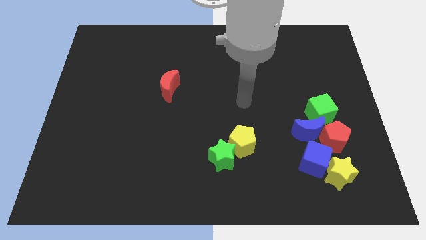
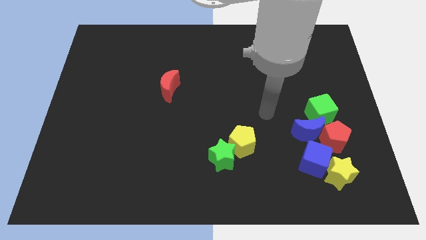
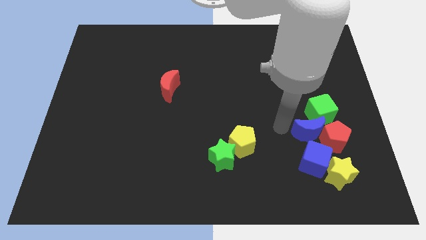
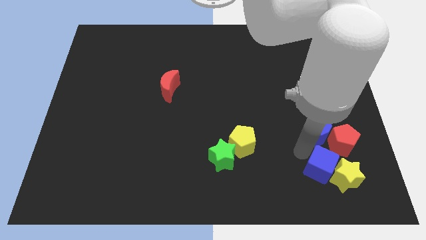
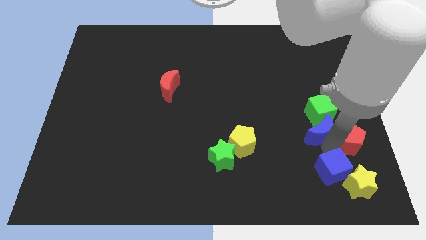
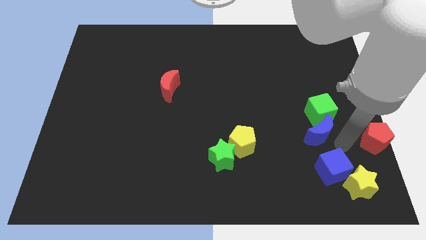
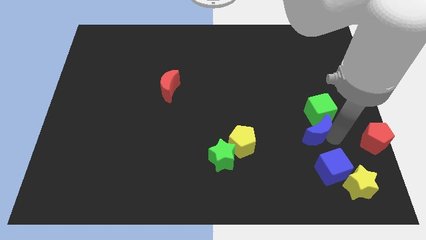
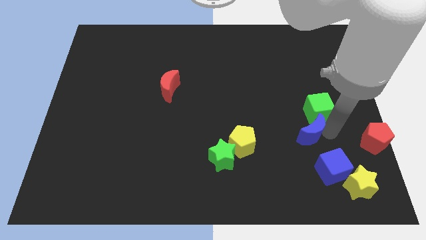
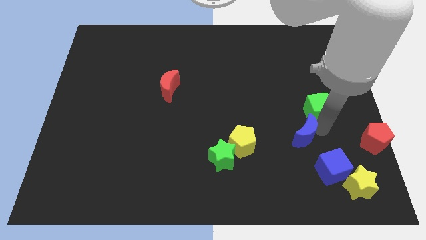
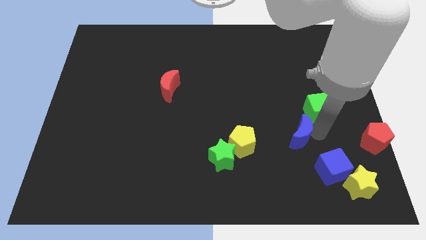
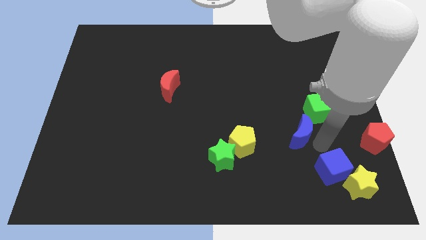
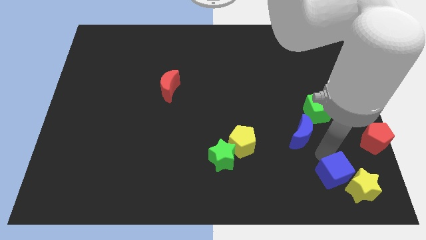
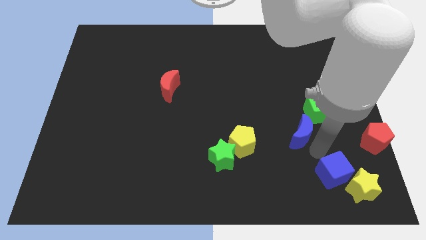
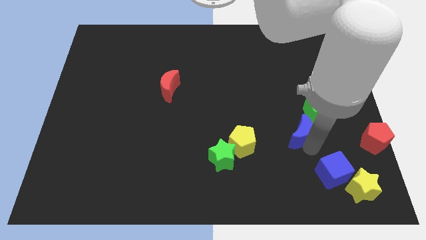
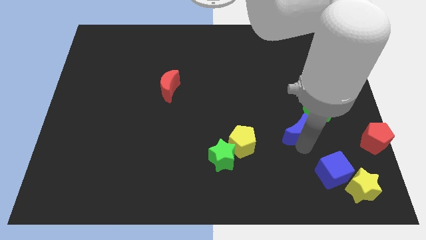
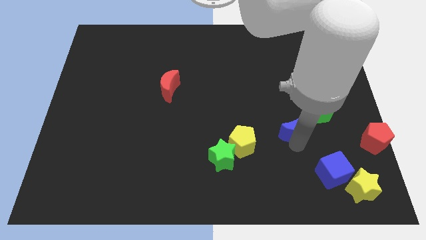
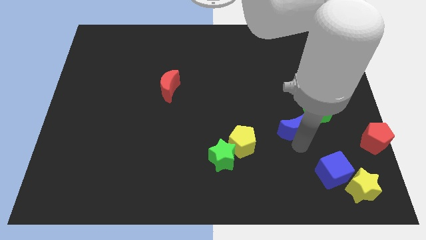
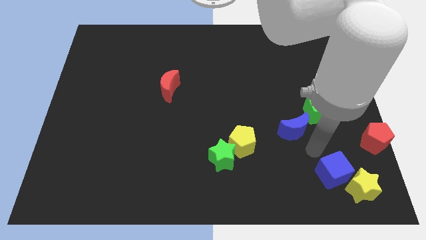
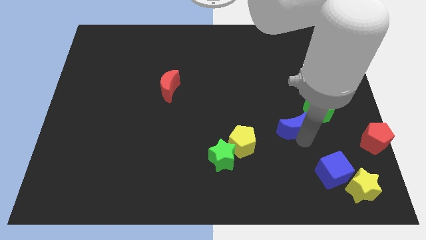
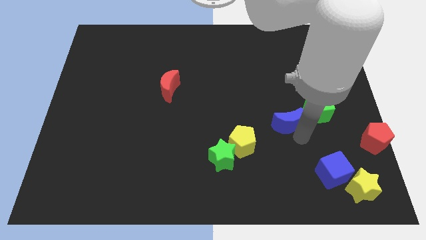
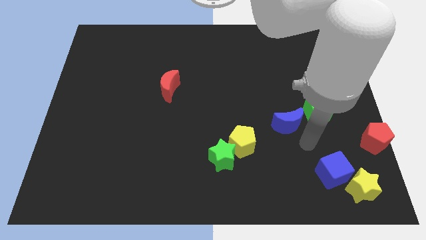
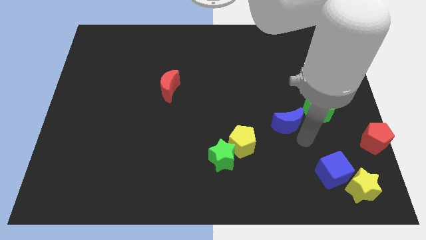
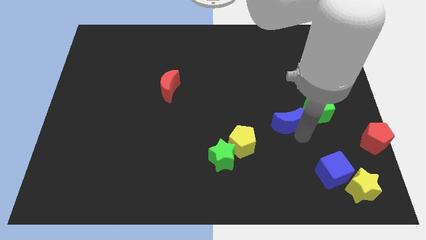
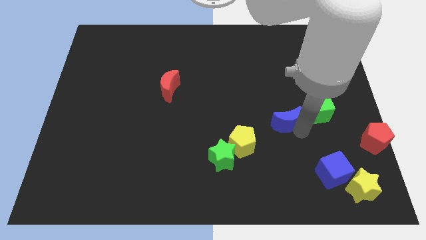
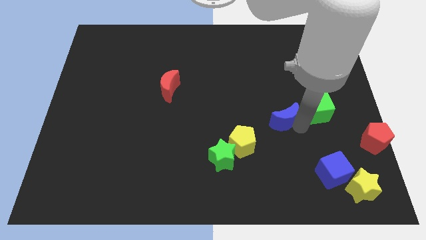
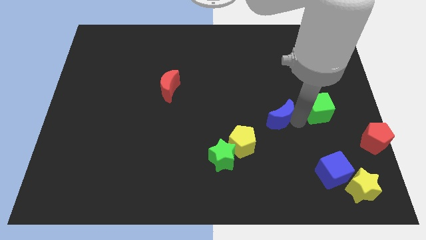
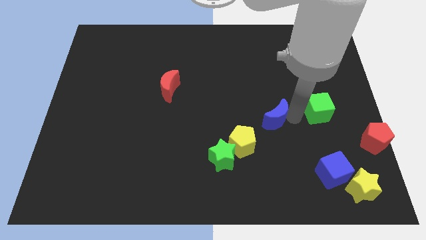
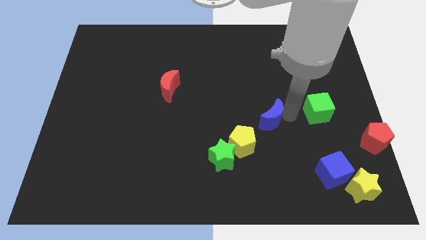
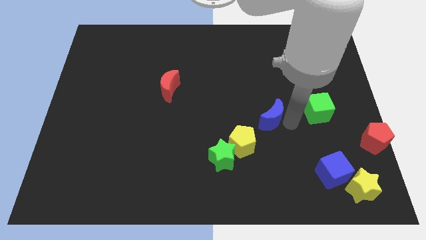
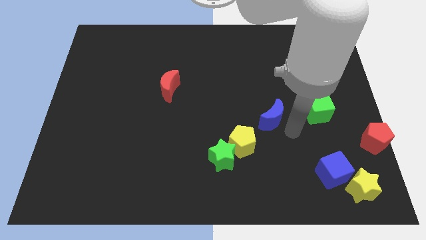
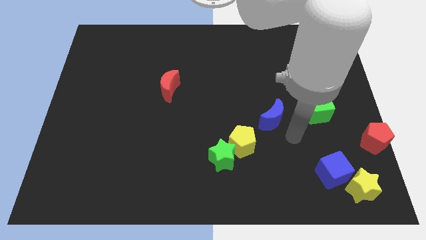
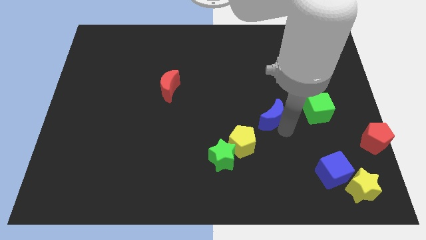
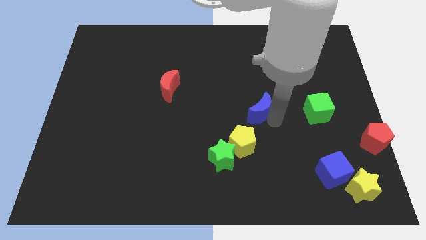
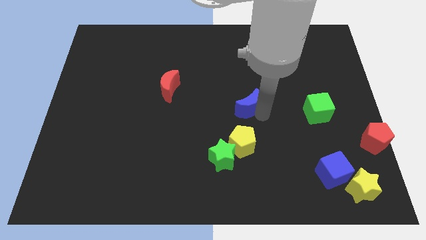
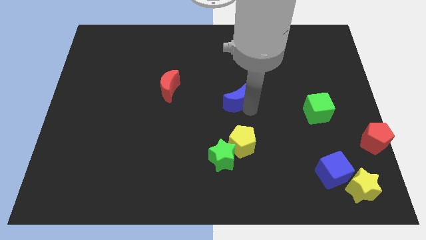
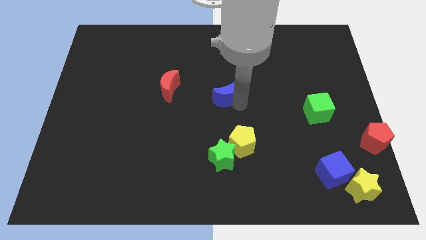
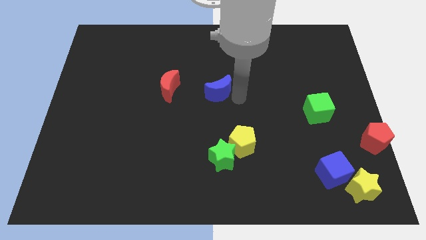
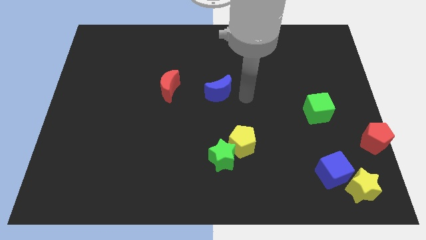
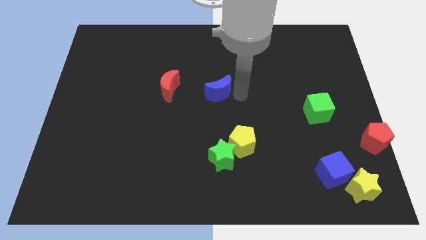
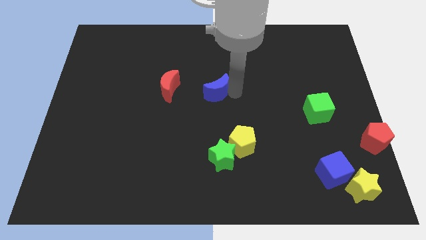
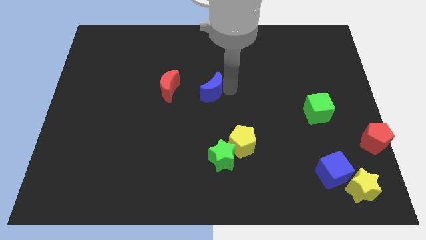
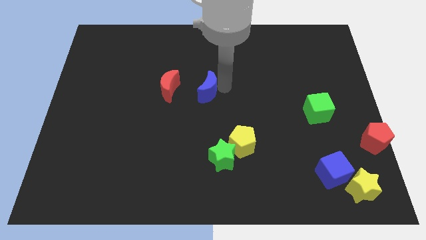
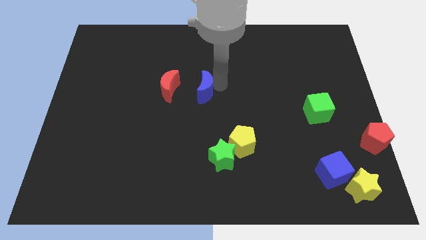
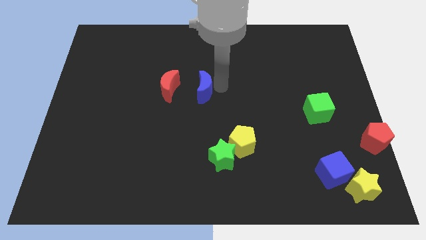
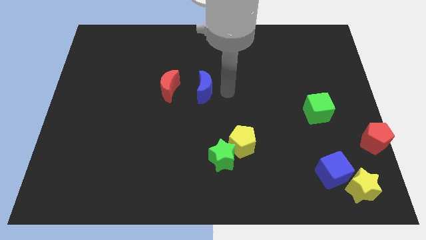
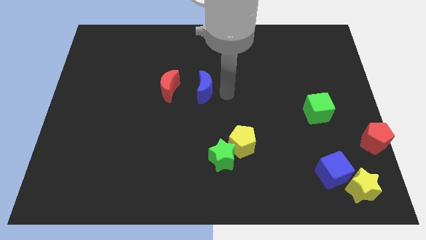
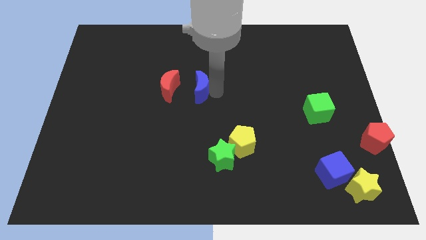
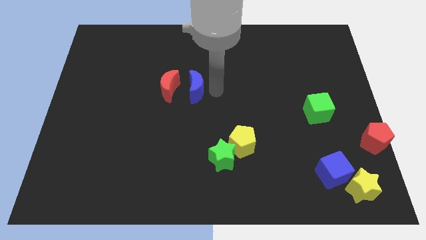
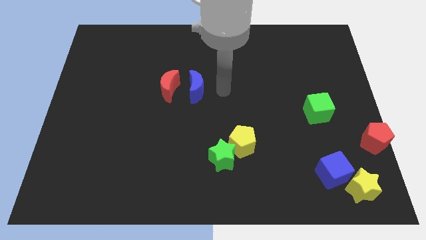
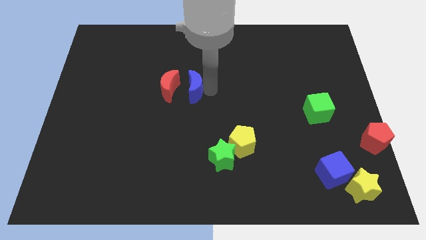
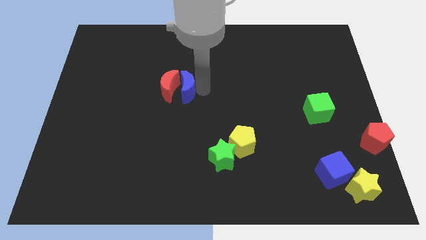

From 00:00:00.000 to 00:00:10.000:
slide the blue moon next to the red moon

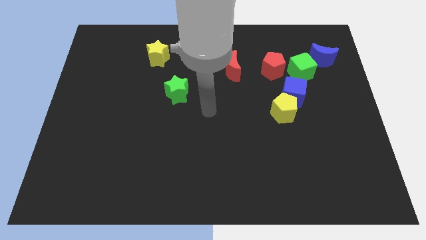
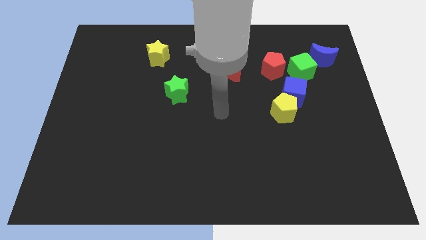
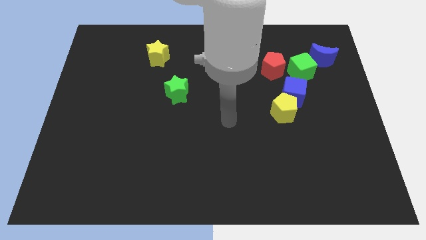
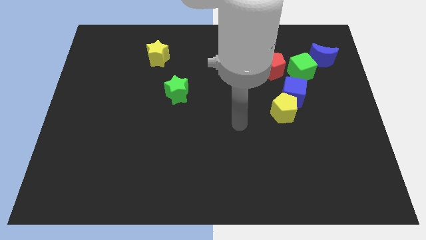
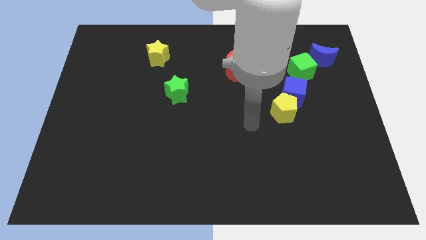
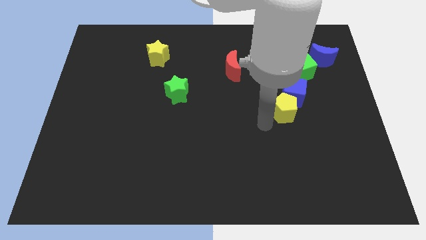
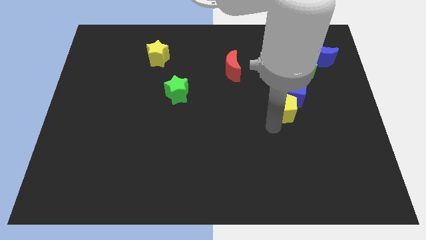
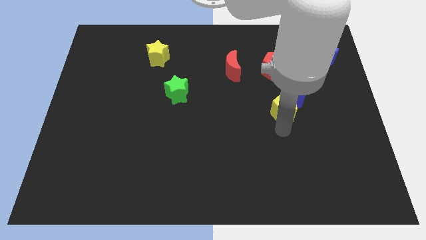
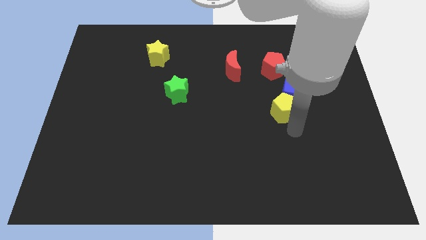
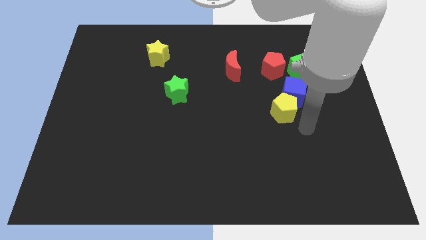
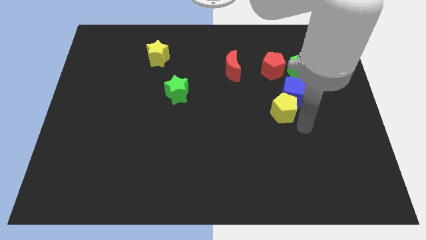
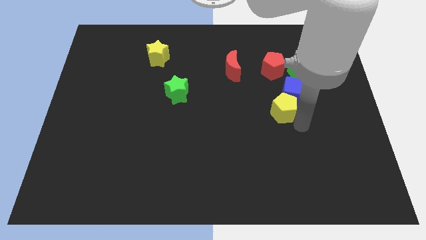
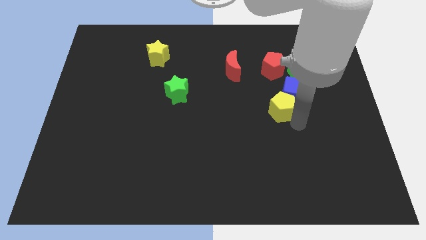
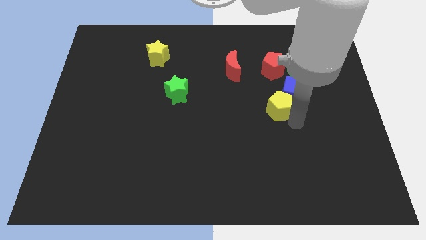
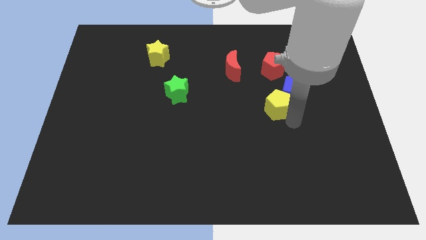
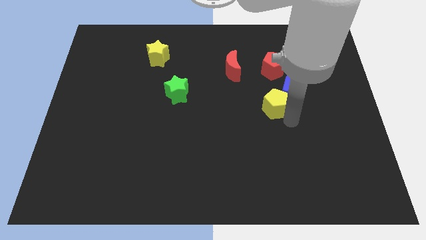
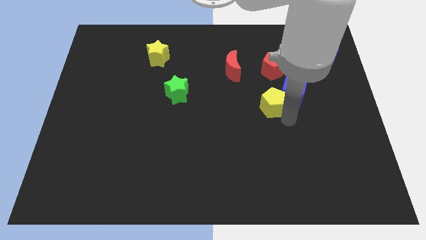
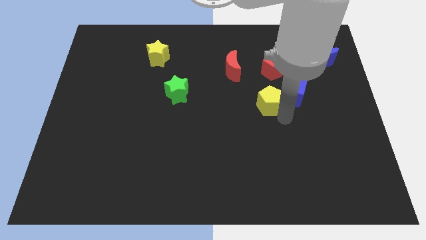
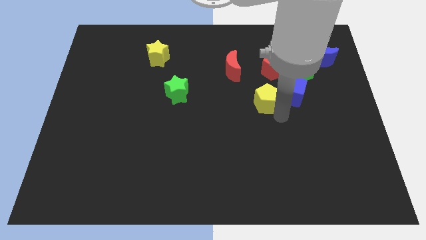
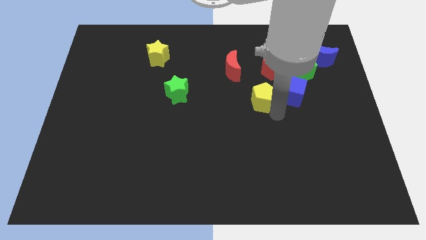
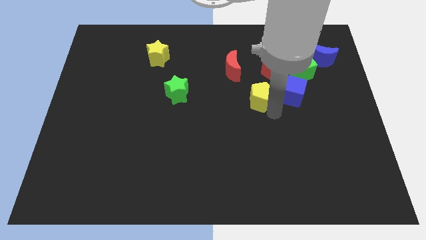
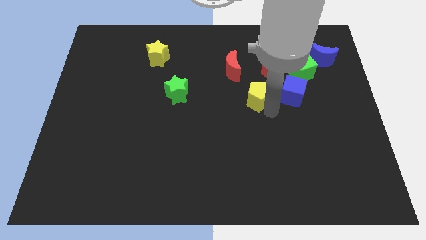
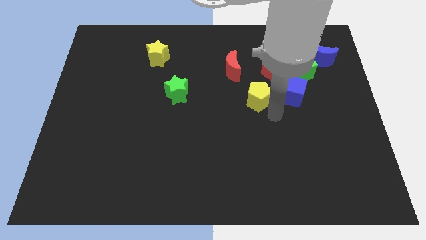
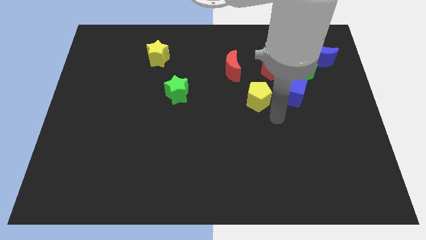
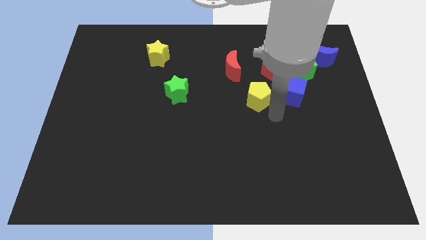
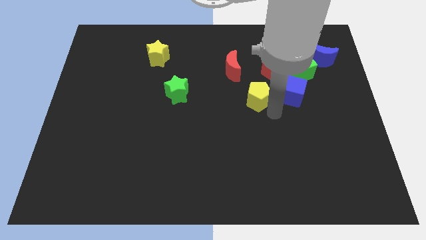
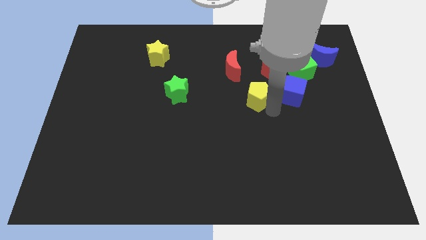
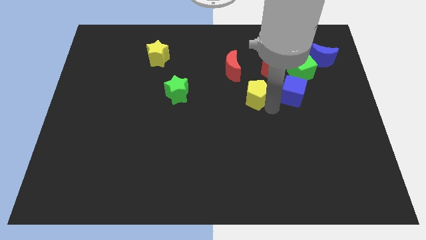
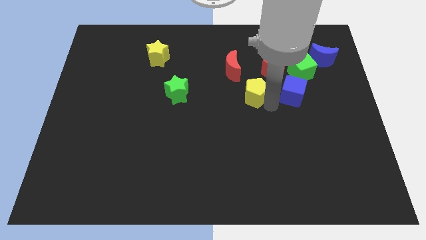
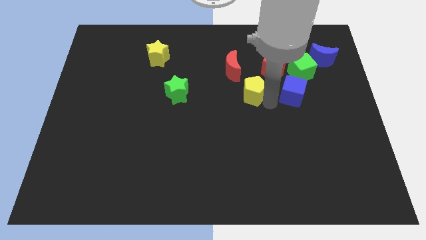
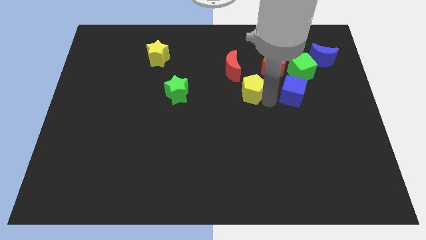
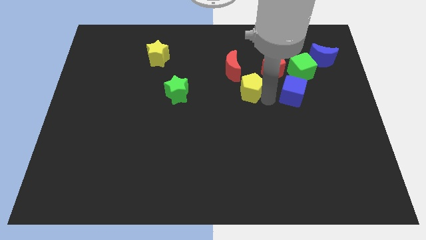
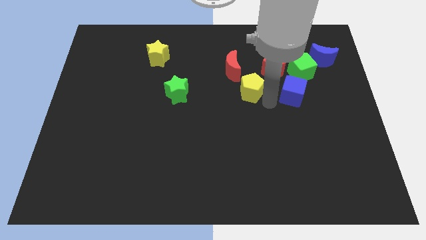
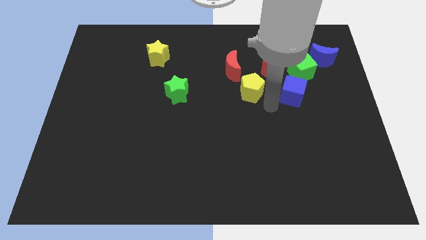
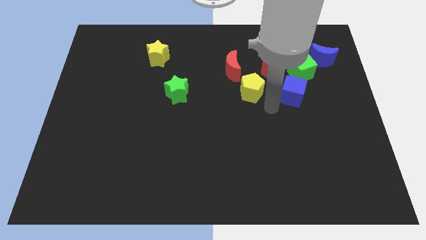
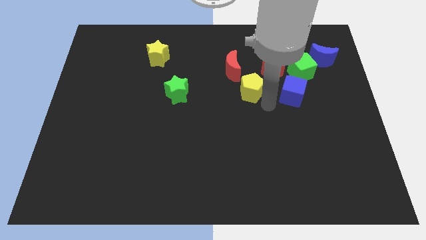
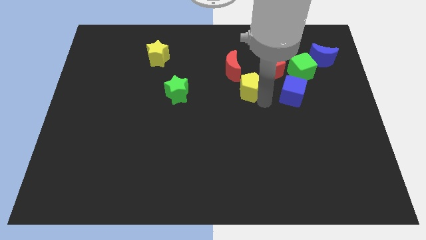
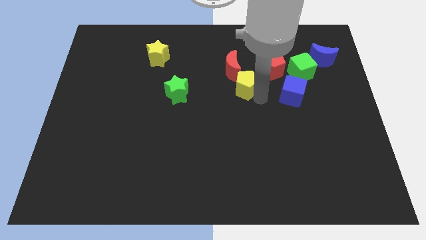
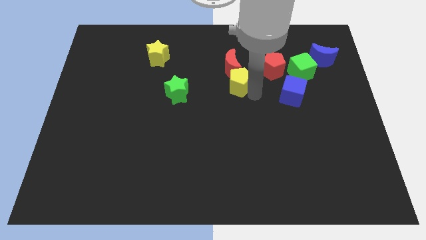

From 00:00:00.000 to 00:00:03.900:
put the yellow pentagon to the red moon
